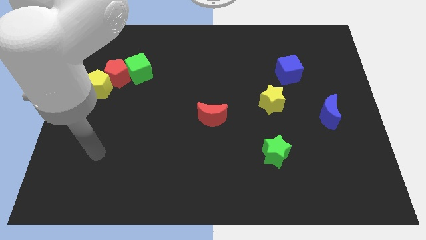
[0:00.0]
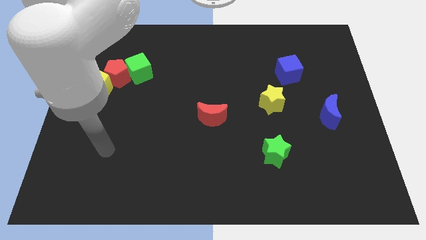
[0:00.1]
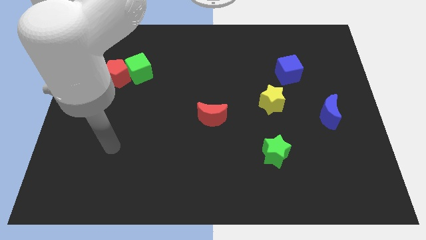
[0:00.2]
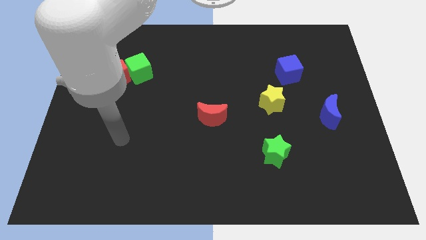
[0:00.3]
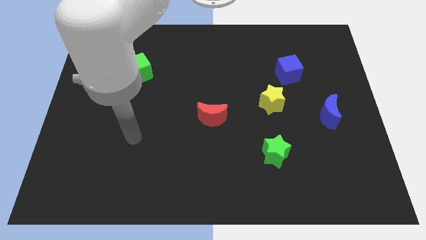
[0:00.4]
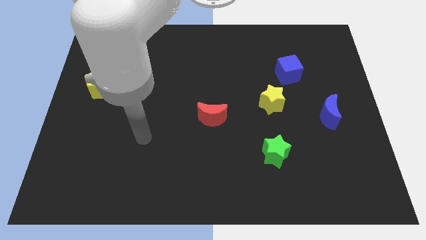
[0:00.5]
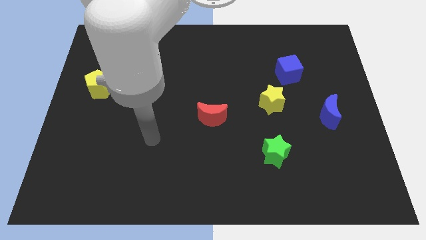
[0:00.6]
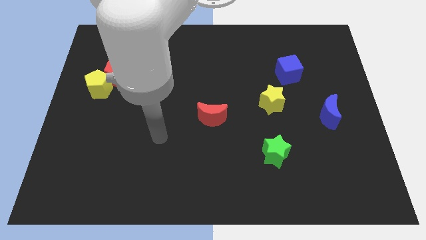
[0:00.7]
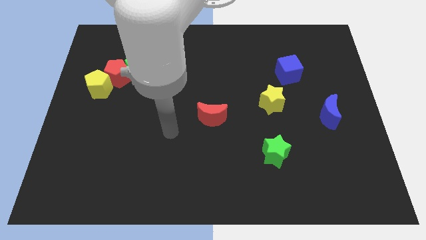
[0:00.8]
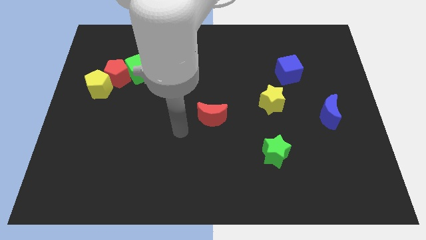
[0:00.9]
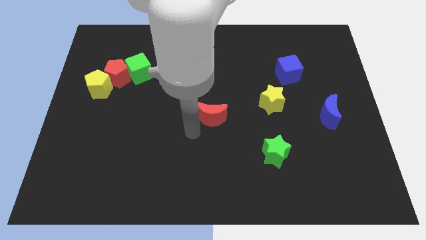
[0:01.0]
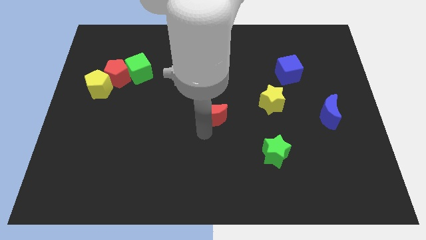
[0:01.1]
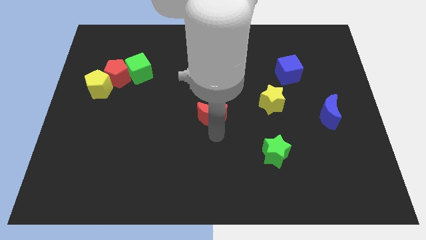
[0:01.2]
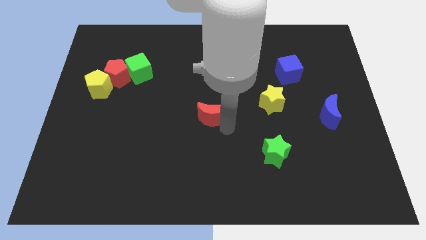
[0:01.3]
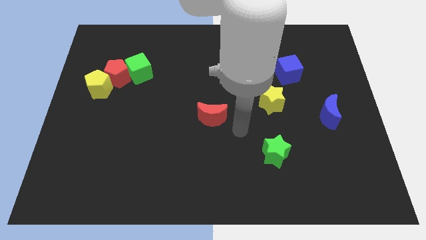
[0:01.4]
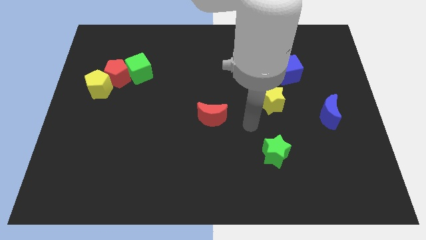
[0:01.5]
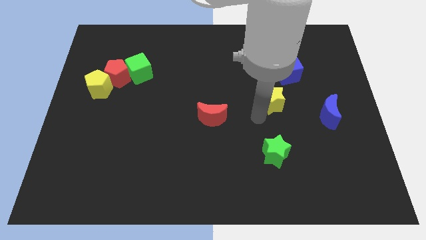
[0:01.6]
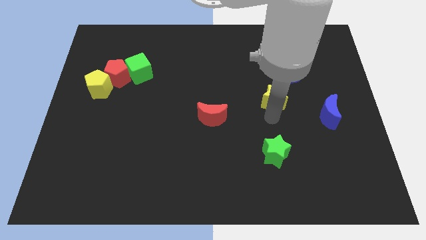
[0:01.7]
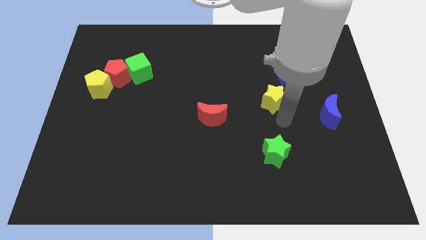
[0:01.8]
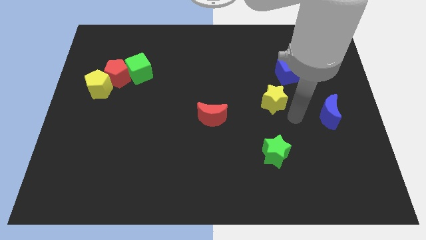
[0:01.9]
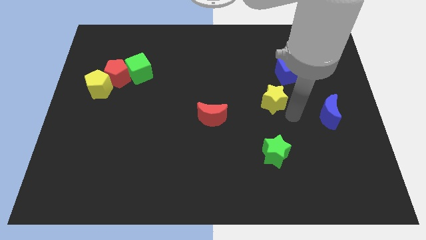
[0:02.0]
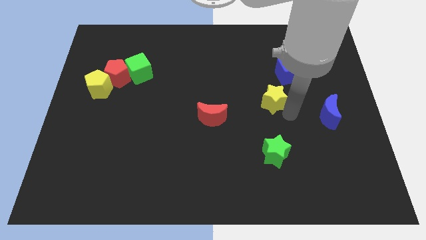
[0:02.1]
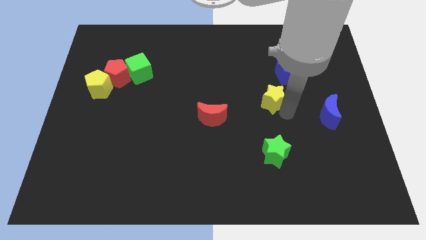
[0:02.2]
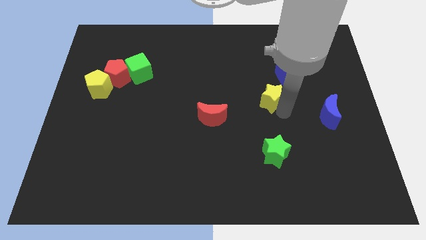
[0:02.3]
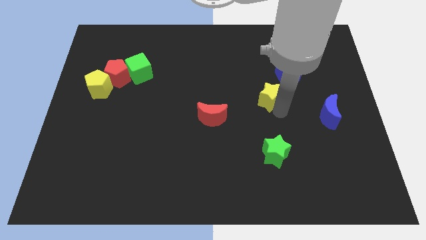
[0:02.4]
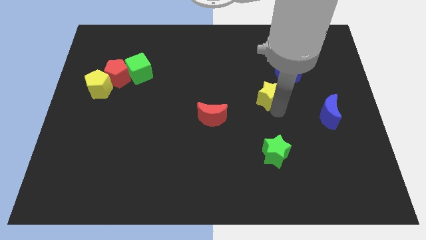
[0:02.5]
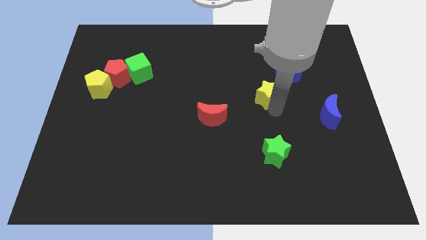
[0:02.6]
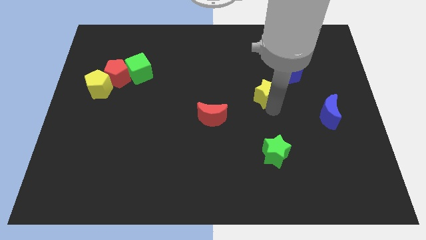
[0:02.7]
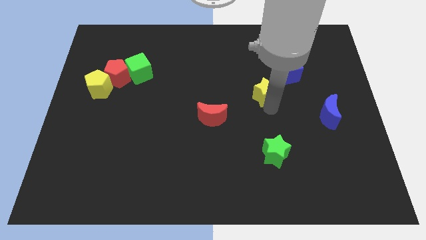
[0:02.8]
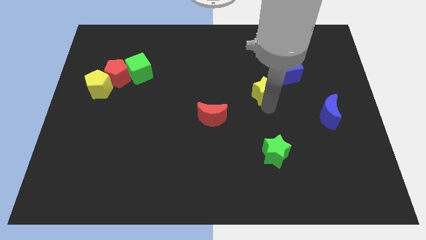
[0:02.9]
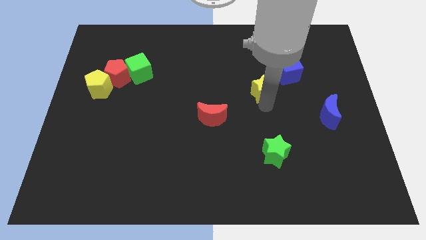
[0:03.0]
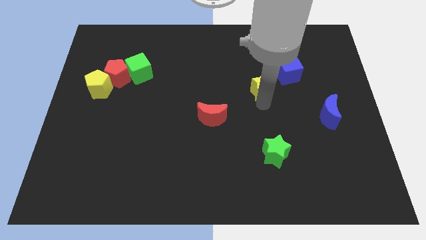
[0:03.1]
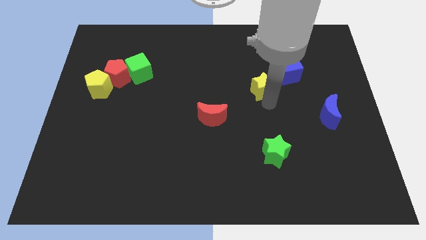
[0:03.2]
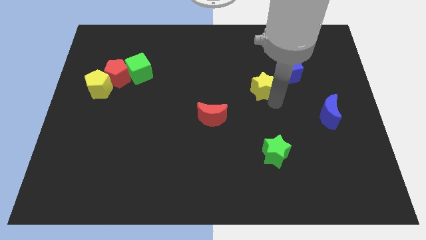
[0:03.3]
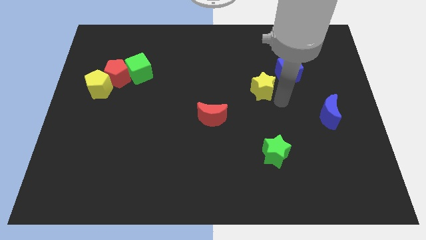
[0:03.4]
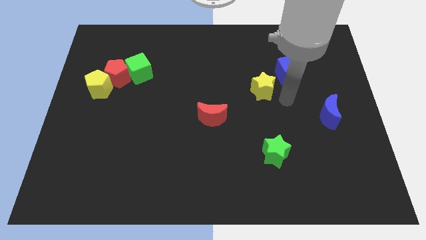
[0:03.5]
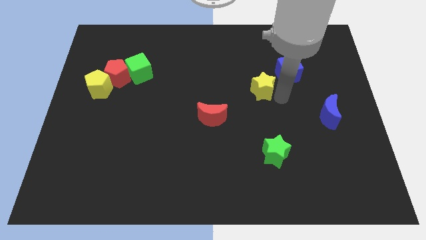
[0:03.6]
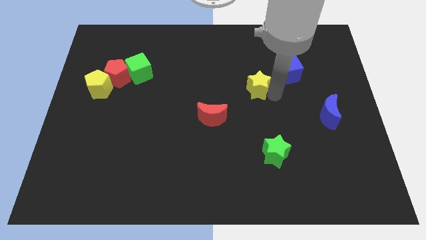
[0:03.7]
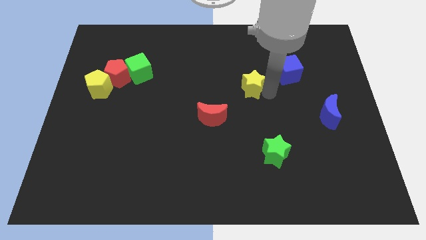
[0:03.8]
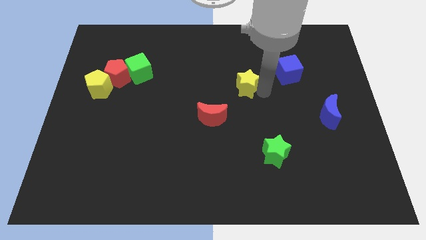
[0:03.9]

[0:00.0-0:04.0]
slightly slide the yellow star up and to the left

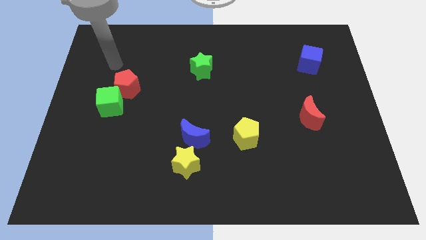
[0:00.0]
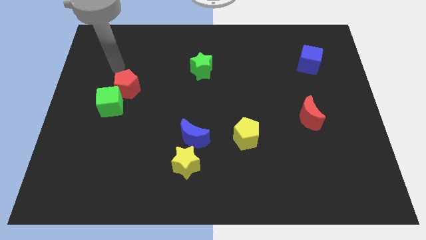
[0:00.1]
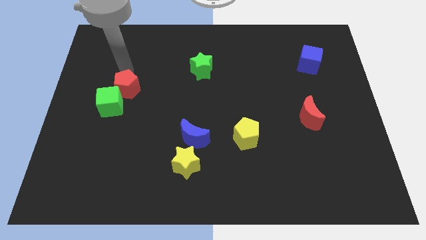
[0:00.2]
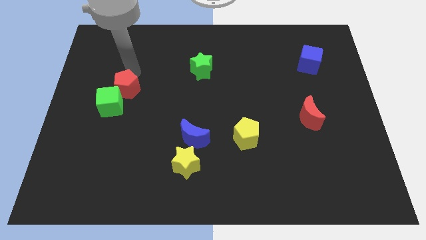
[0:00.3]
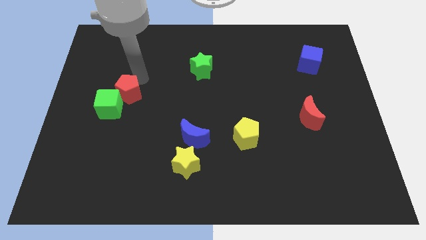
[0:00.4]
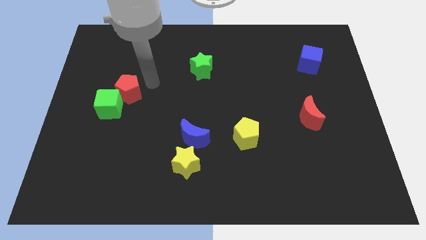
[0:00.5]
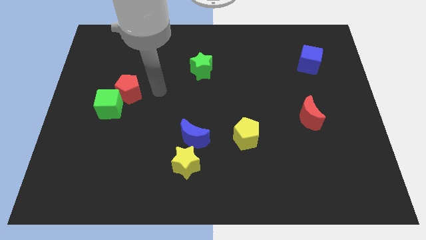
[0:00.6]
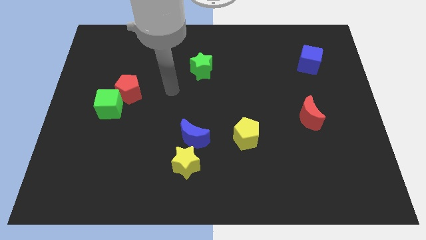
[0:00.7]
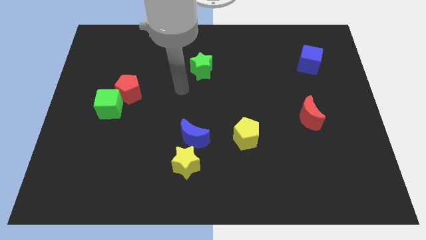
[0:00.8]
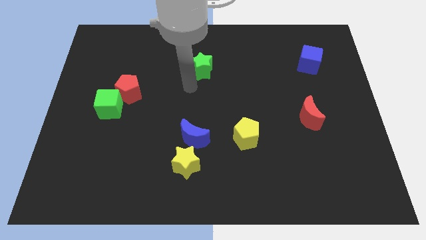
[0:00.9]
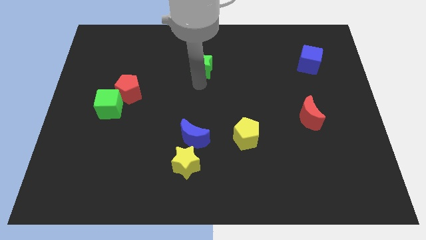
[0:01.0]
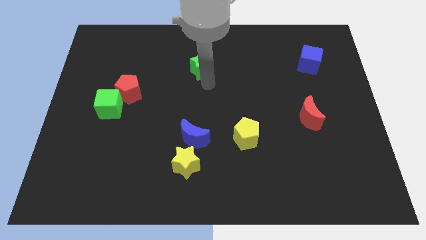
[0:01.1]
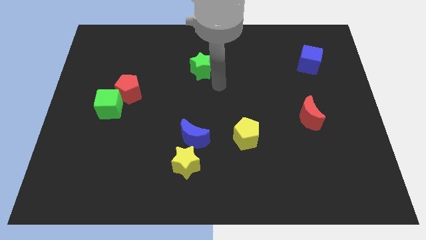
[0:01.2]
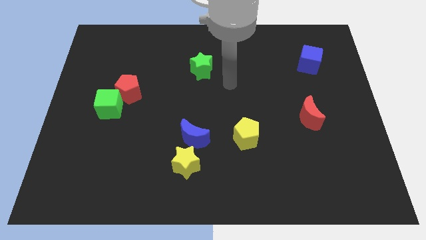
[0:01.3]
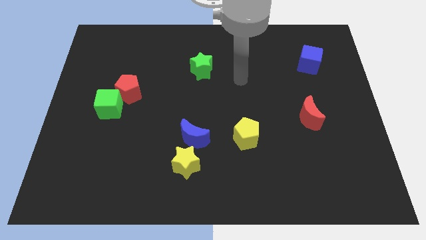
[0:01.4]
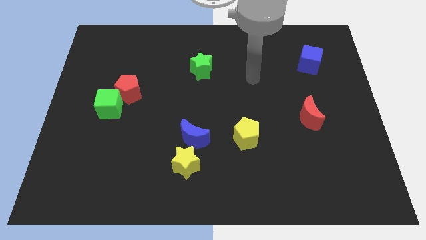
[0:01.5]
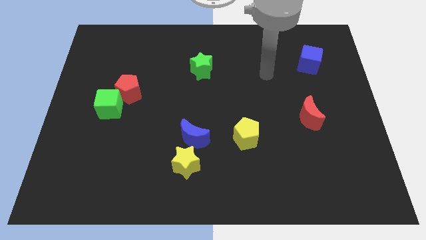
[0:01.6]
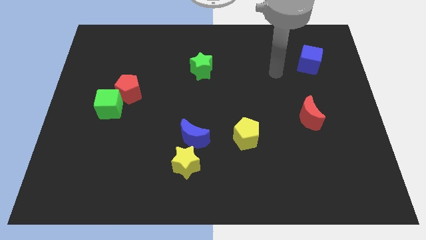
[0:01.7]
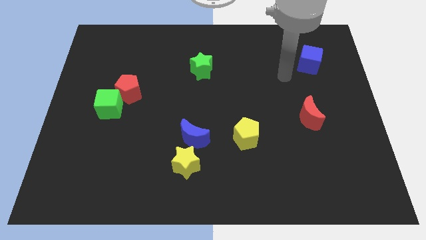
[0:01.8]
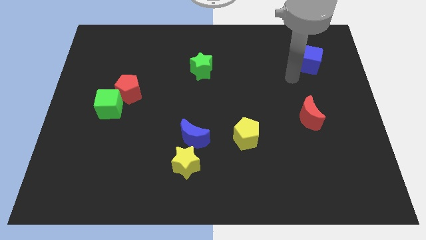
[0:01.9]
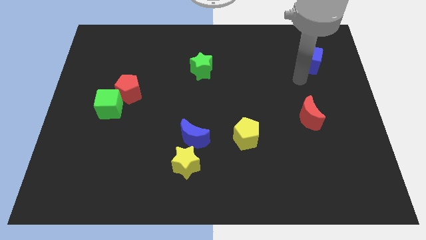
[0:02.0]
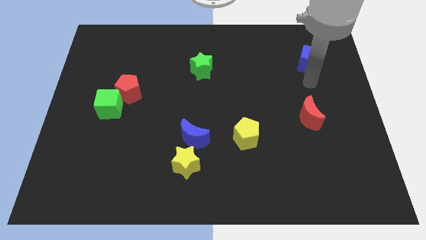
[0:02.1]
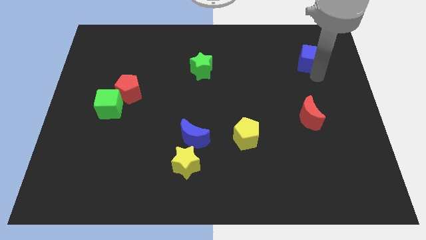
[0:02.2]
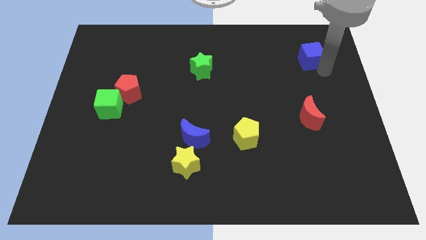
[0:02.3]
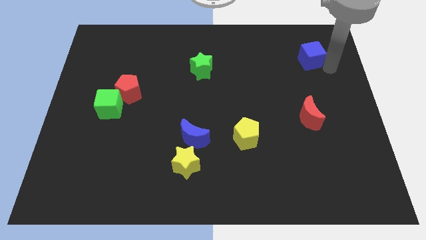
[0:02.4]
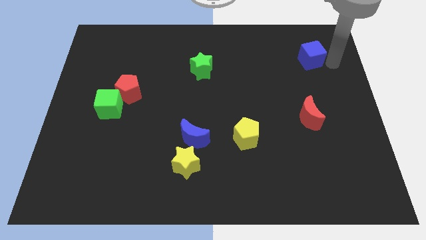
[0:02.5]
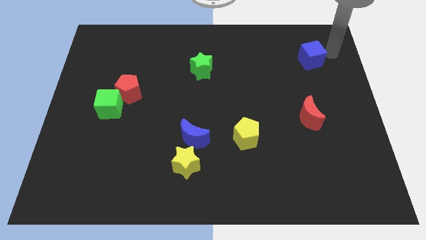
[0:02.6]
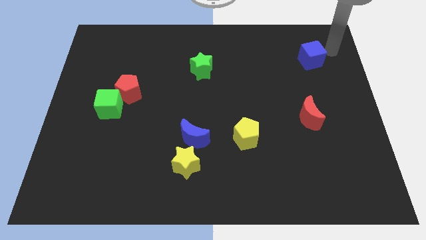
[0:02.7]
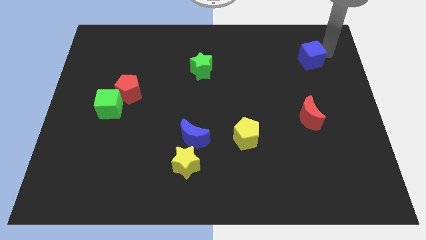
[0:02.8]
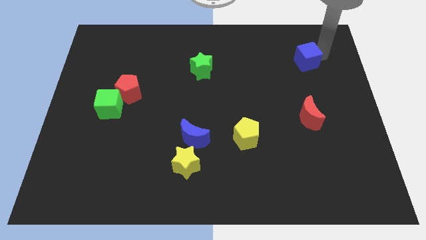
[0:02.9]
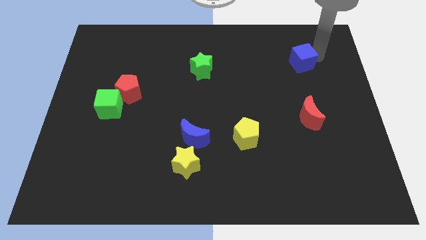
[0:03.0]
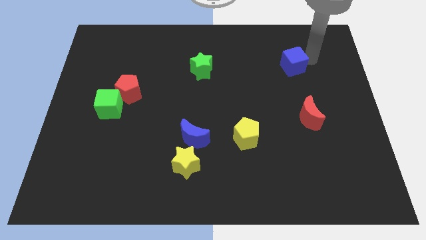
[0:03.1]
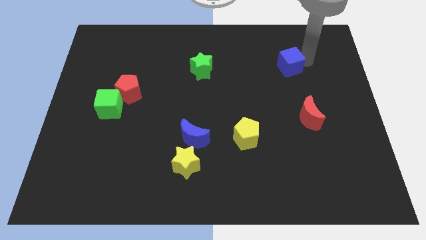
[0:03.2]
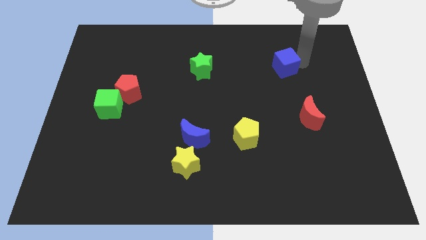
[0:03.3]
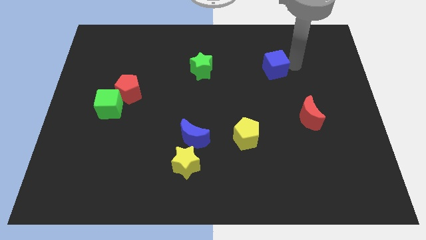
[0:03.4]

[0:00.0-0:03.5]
slide the blue cube left slightly
